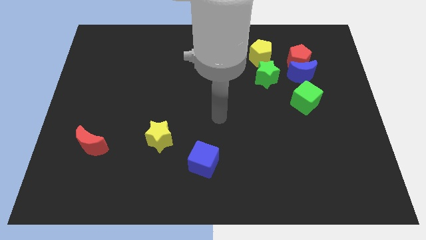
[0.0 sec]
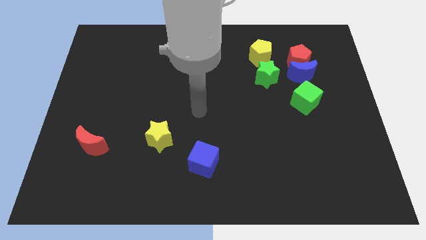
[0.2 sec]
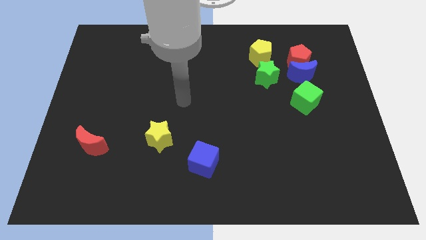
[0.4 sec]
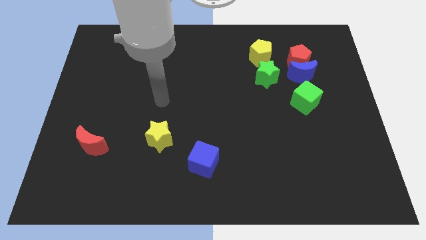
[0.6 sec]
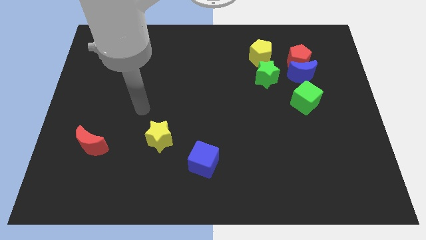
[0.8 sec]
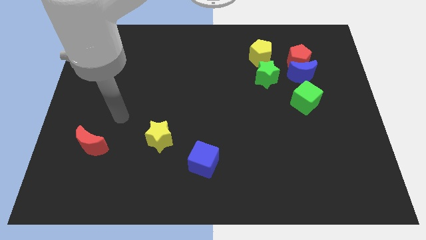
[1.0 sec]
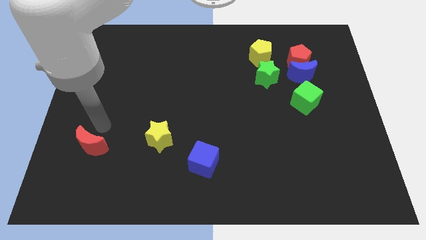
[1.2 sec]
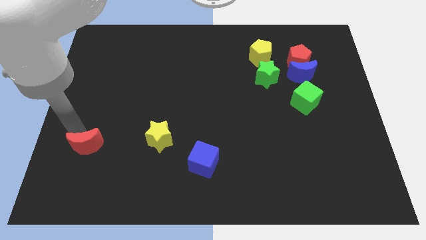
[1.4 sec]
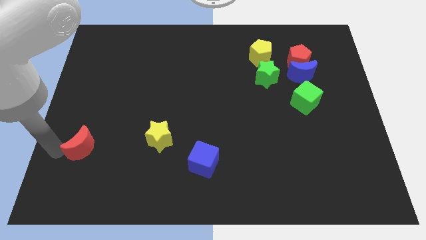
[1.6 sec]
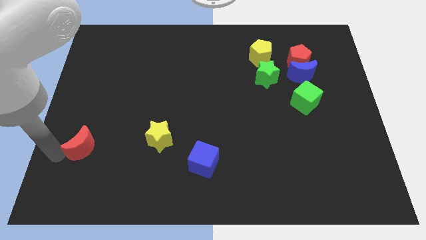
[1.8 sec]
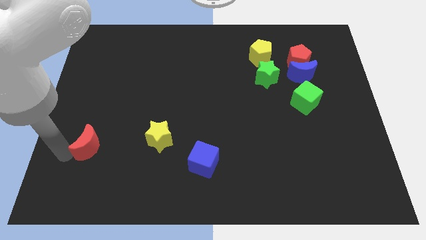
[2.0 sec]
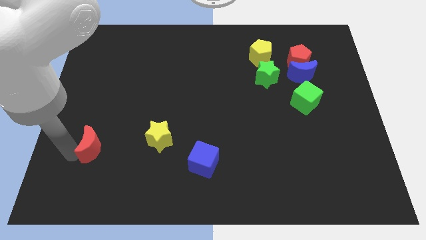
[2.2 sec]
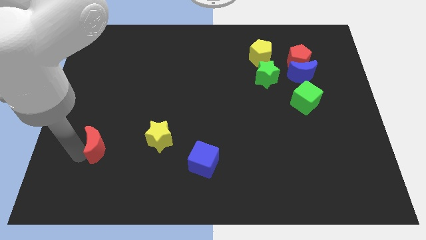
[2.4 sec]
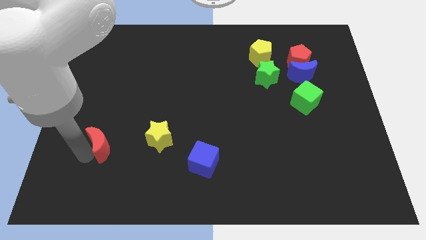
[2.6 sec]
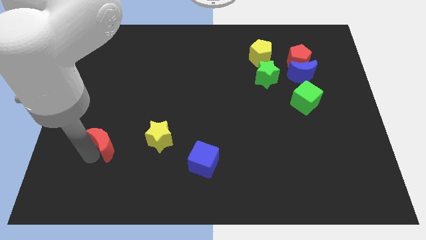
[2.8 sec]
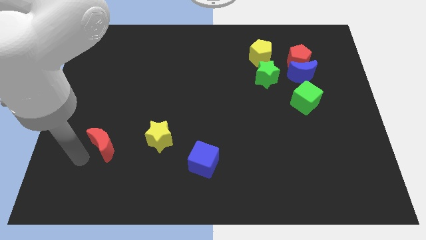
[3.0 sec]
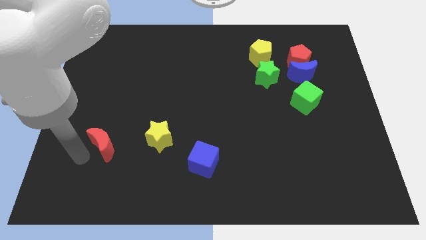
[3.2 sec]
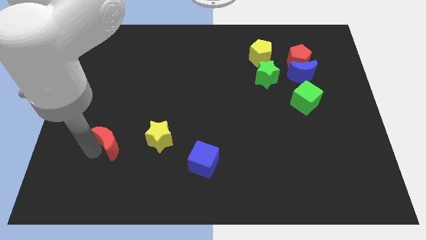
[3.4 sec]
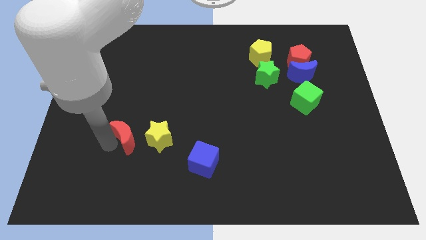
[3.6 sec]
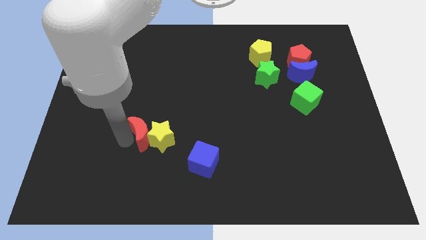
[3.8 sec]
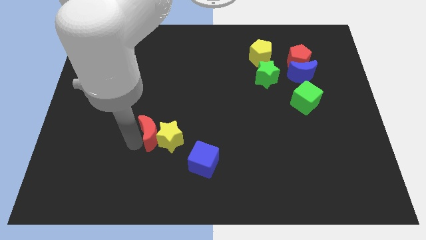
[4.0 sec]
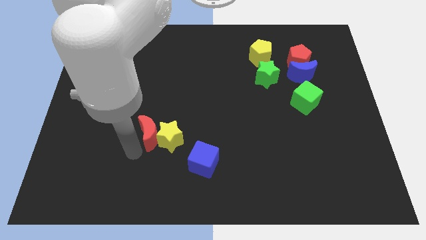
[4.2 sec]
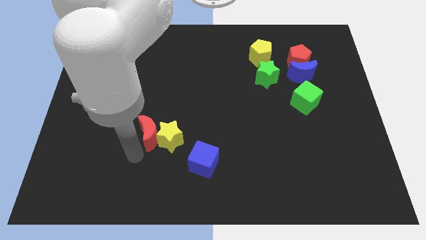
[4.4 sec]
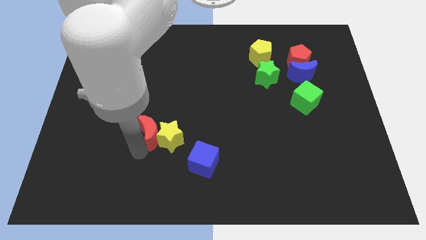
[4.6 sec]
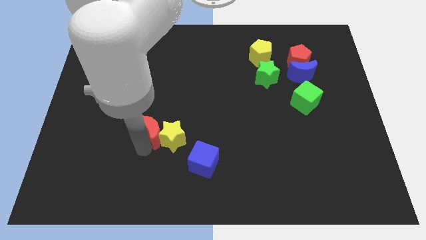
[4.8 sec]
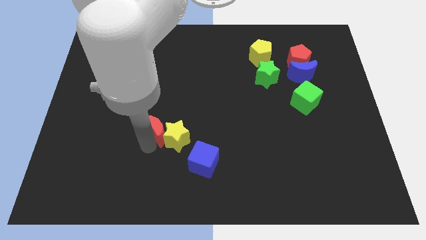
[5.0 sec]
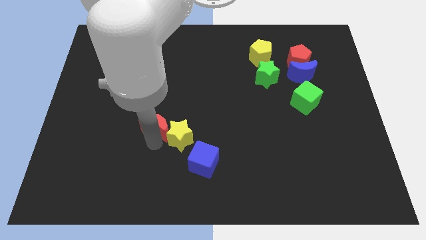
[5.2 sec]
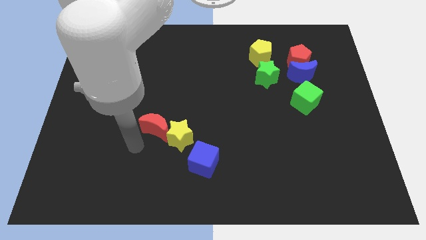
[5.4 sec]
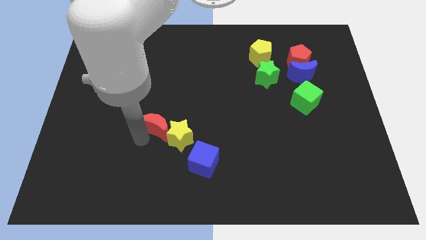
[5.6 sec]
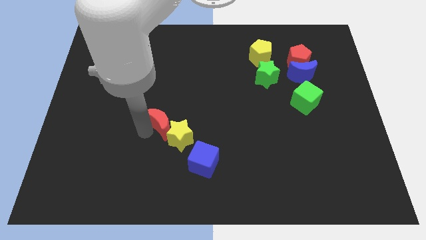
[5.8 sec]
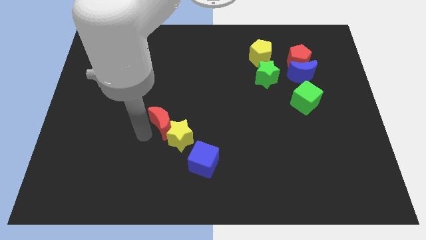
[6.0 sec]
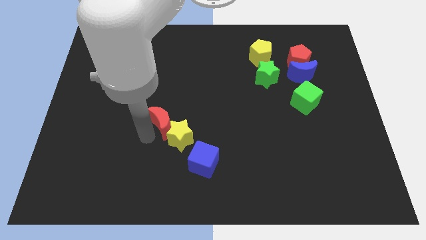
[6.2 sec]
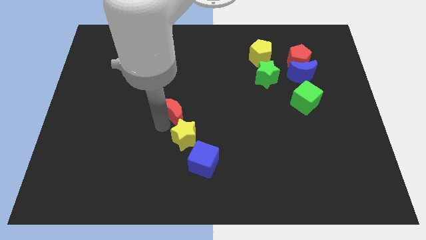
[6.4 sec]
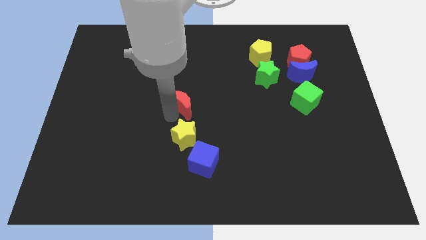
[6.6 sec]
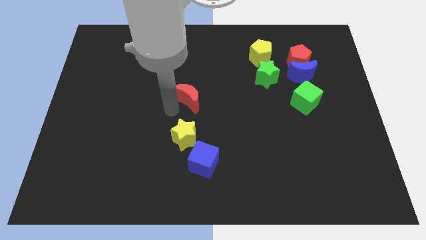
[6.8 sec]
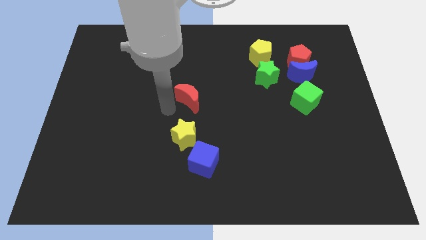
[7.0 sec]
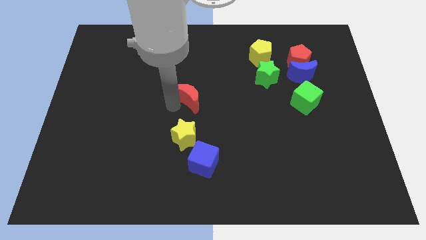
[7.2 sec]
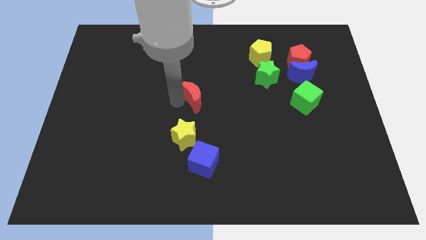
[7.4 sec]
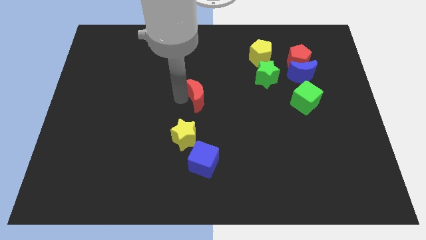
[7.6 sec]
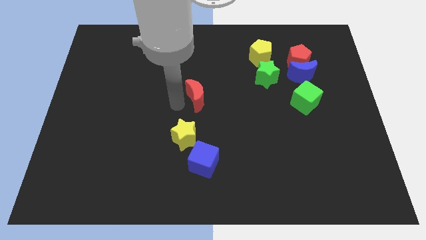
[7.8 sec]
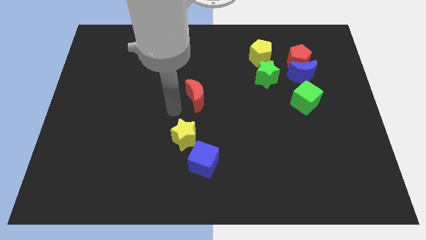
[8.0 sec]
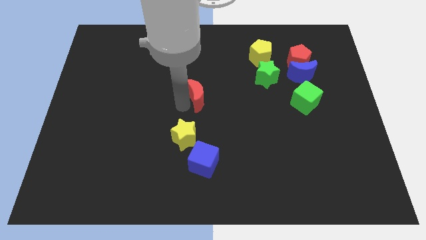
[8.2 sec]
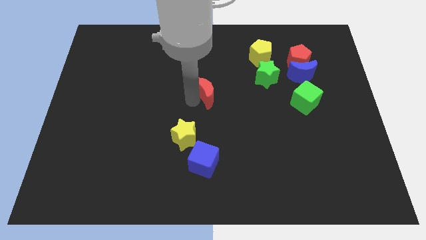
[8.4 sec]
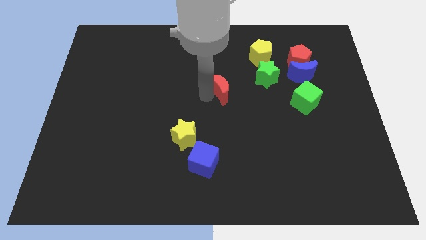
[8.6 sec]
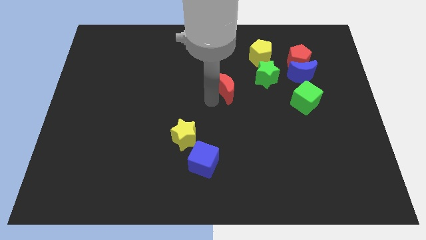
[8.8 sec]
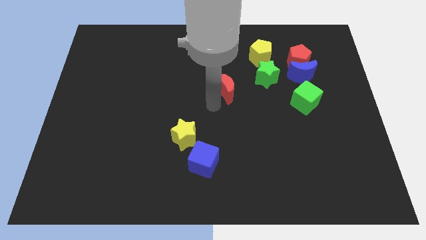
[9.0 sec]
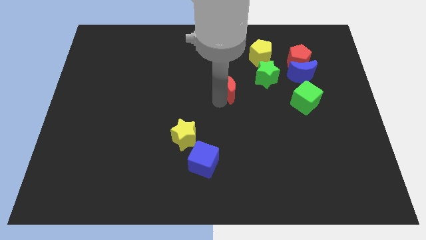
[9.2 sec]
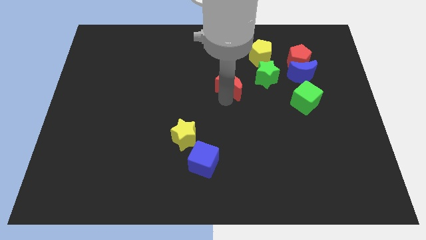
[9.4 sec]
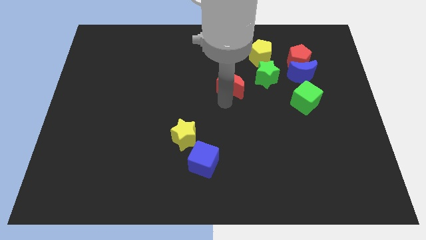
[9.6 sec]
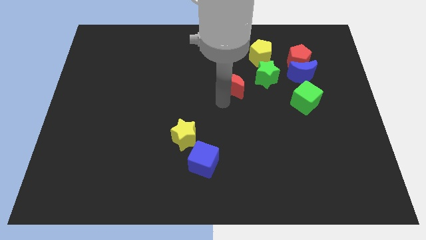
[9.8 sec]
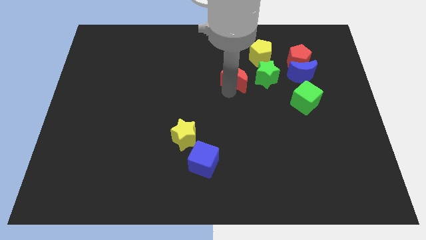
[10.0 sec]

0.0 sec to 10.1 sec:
put the red moon diagonally down and to the left of the yellow pentagon

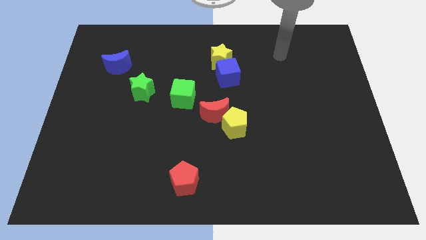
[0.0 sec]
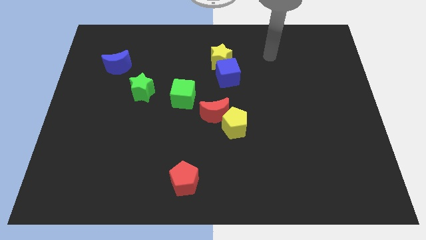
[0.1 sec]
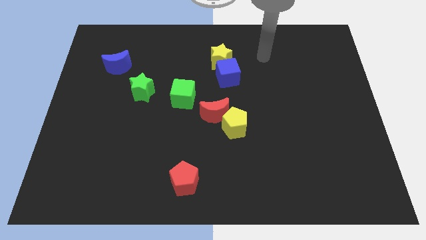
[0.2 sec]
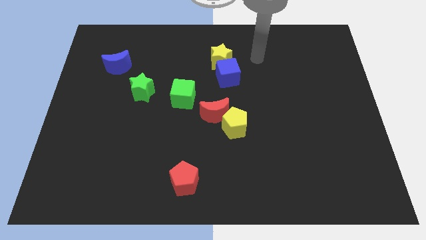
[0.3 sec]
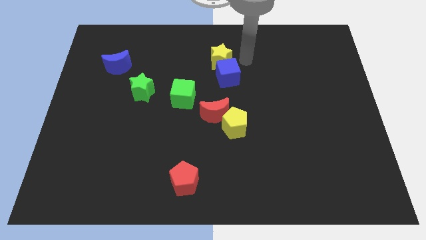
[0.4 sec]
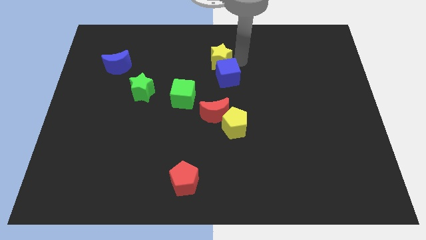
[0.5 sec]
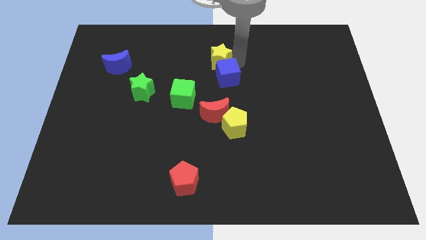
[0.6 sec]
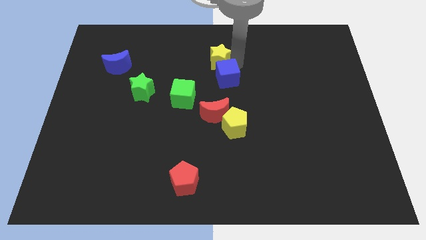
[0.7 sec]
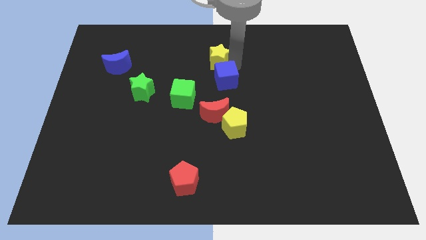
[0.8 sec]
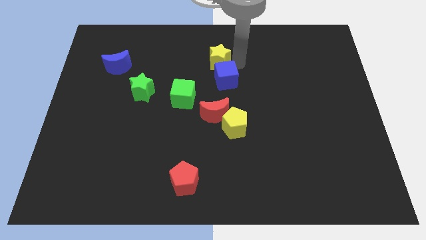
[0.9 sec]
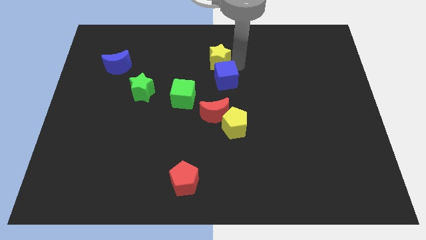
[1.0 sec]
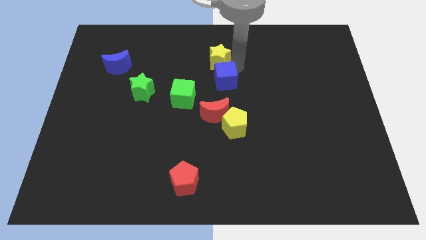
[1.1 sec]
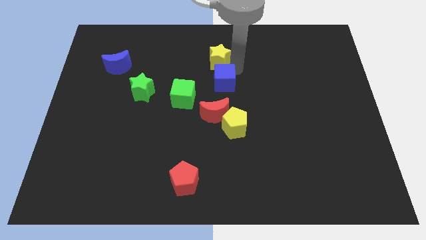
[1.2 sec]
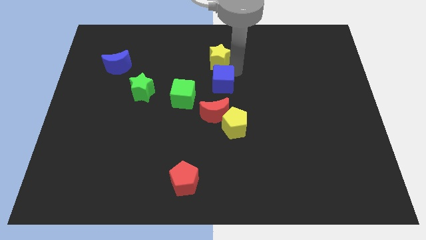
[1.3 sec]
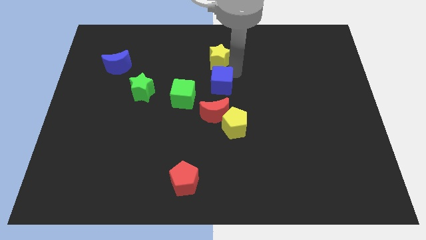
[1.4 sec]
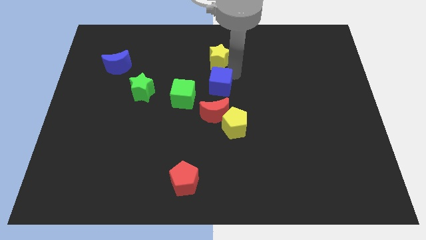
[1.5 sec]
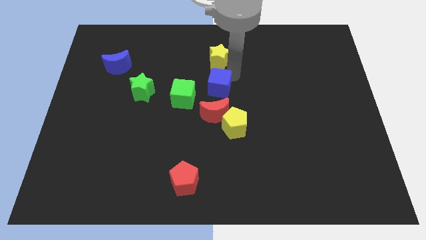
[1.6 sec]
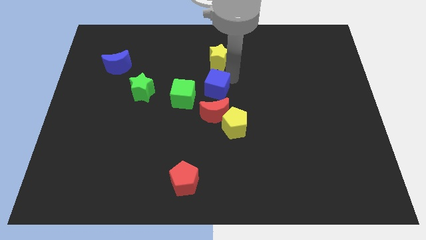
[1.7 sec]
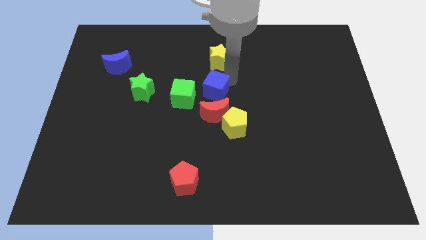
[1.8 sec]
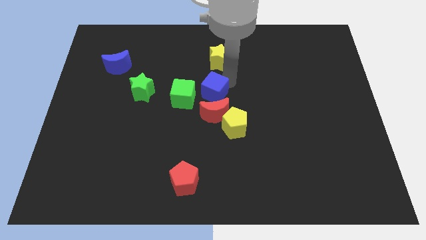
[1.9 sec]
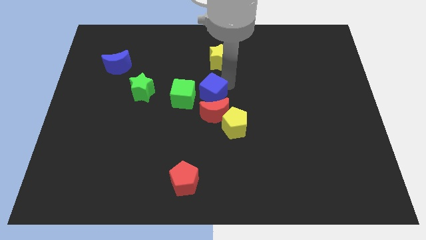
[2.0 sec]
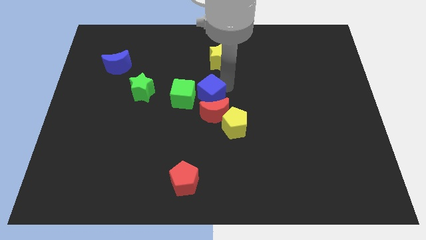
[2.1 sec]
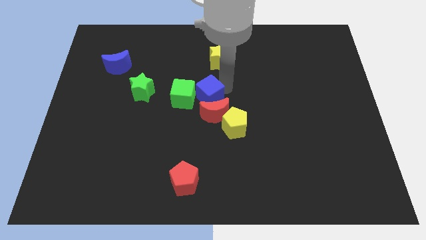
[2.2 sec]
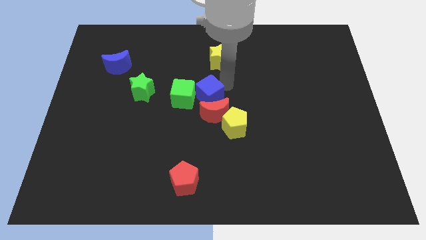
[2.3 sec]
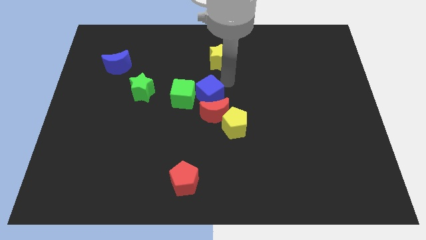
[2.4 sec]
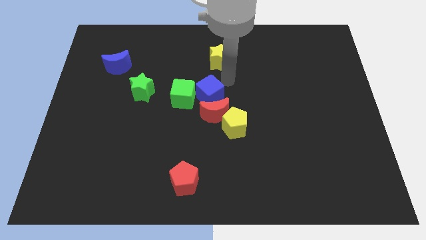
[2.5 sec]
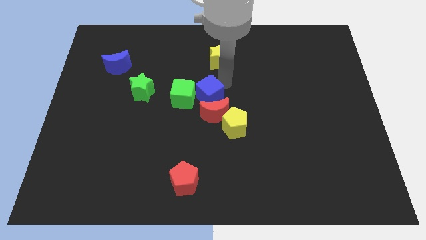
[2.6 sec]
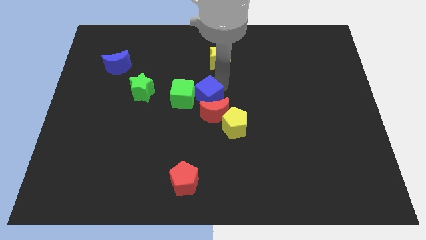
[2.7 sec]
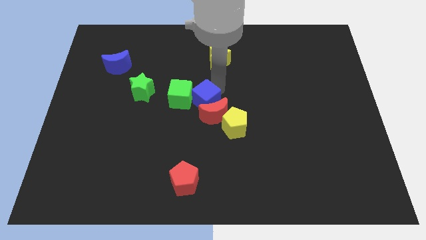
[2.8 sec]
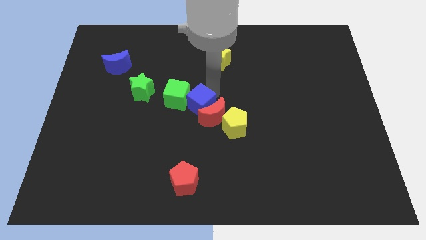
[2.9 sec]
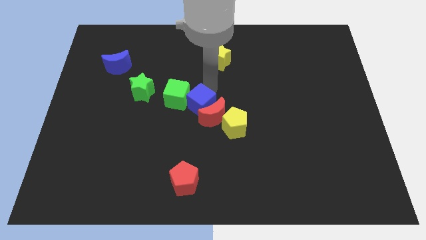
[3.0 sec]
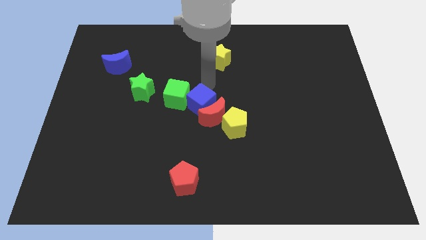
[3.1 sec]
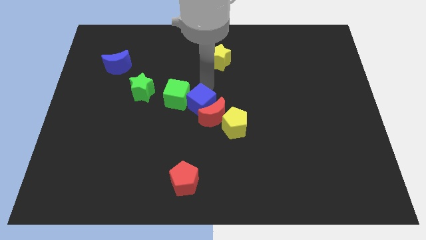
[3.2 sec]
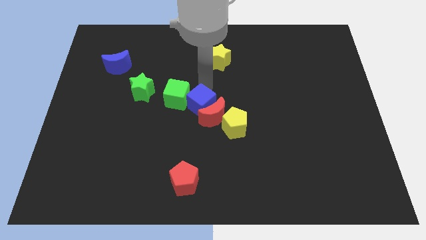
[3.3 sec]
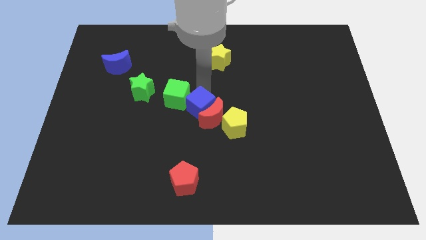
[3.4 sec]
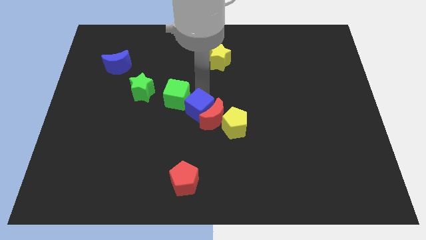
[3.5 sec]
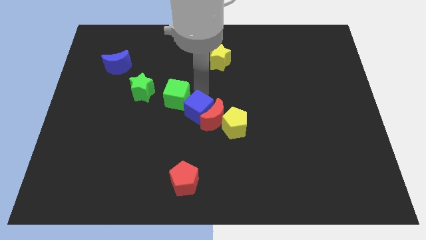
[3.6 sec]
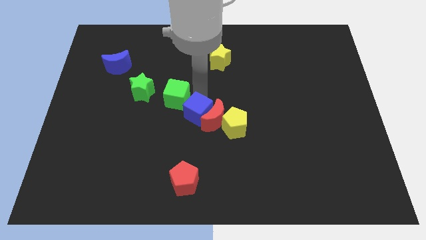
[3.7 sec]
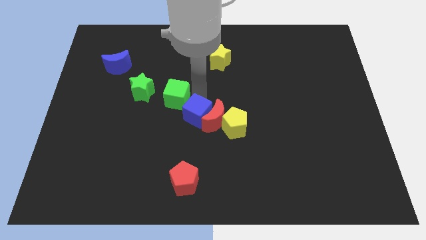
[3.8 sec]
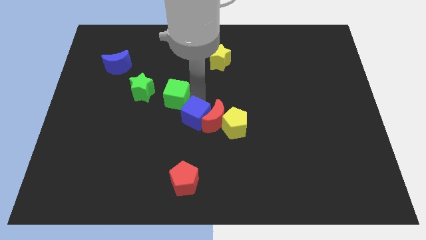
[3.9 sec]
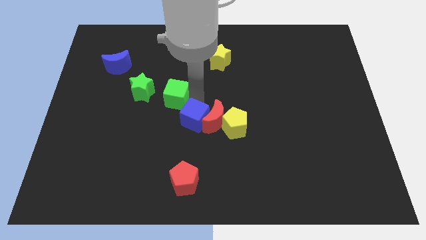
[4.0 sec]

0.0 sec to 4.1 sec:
push the blue cube above the red pentagon
